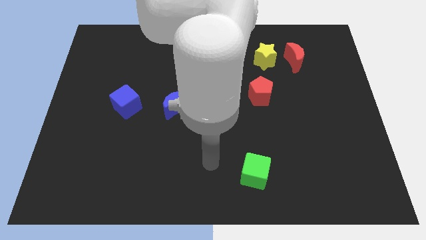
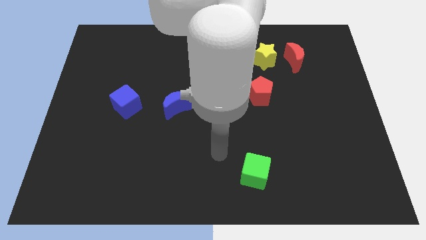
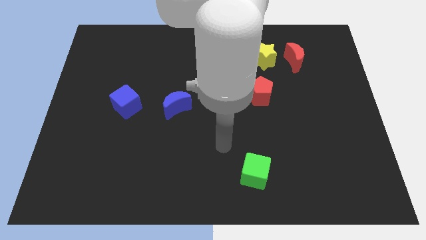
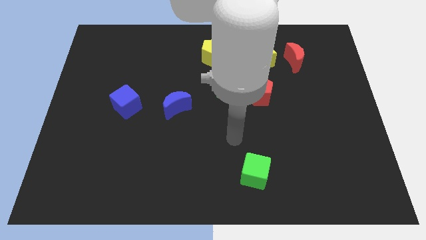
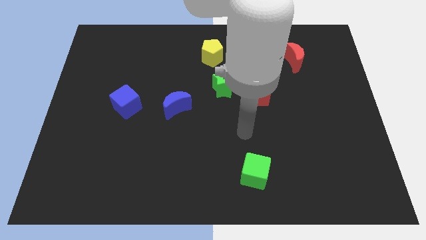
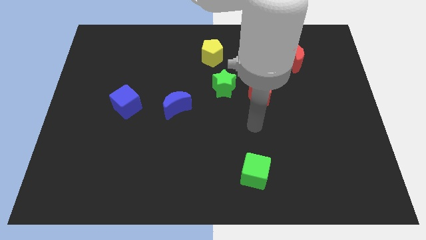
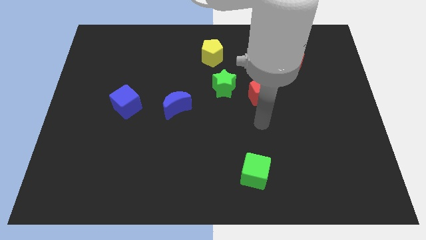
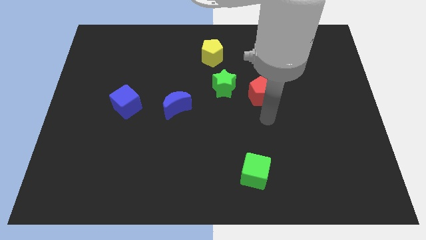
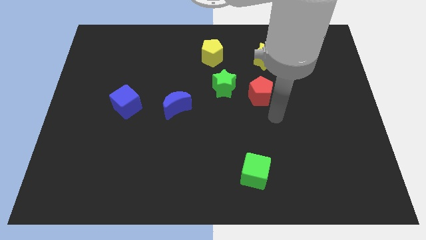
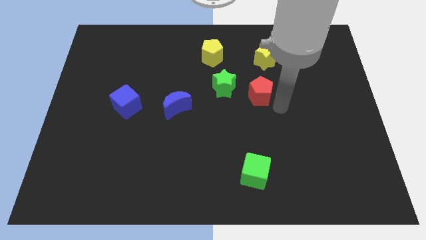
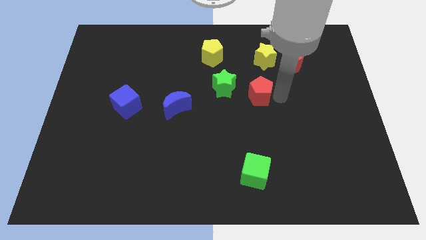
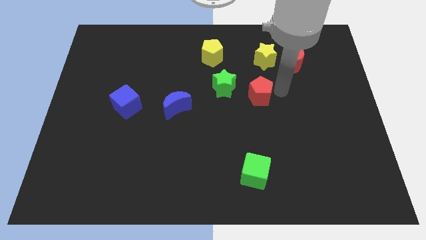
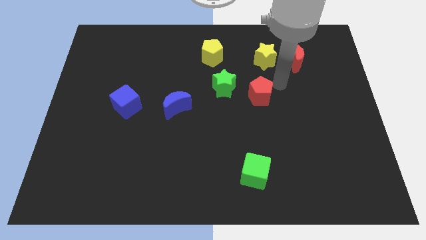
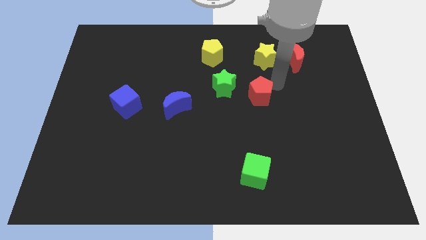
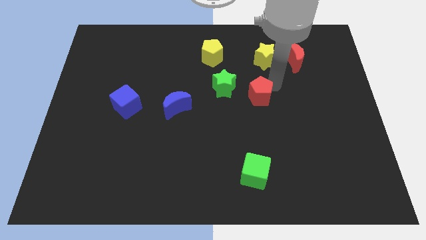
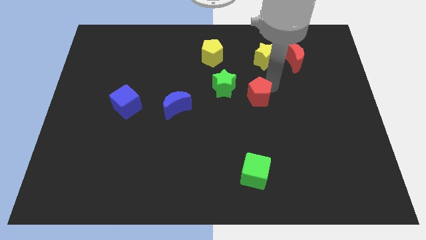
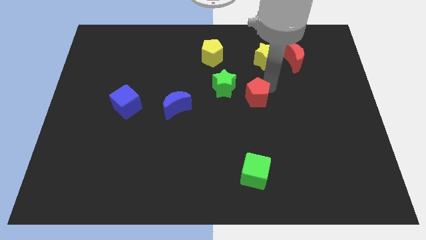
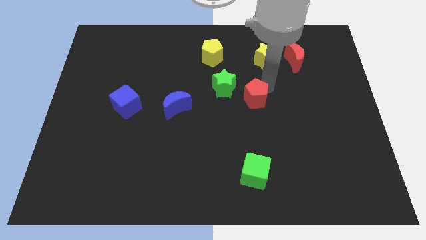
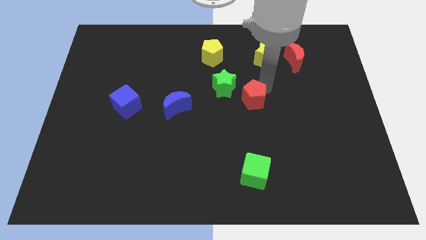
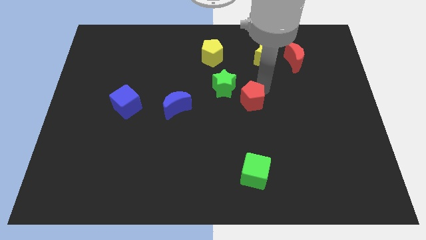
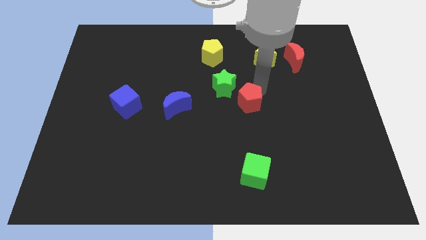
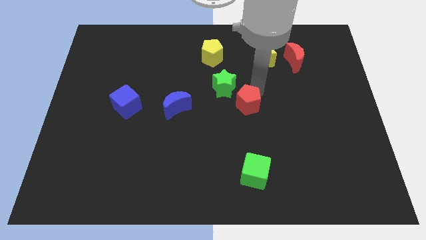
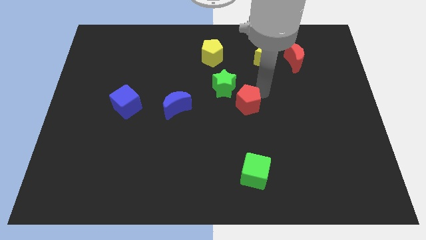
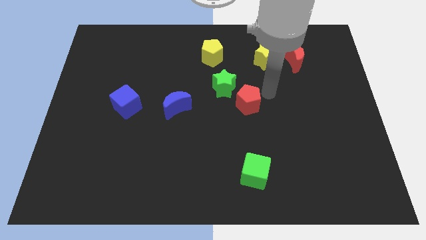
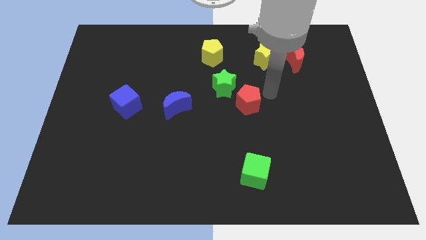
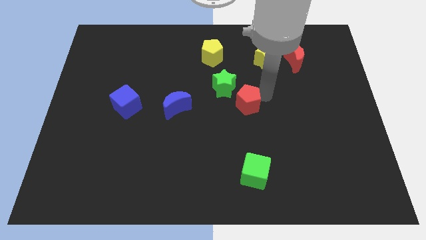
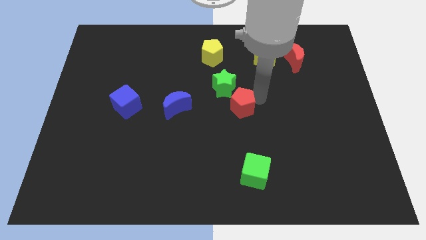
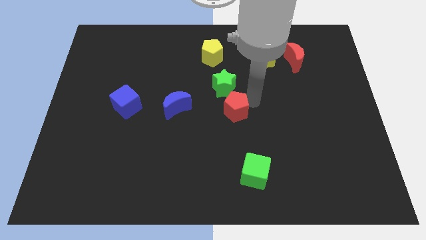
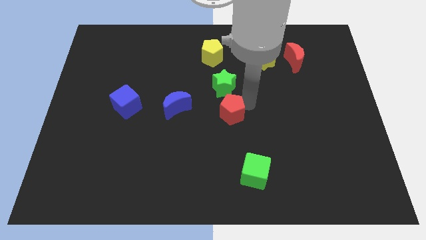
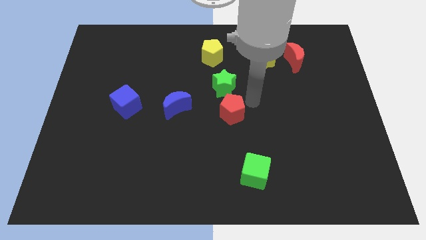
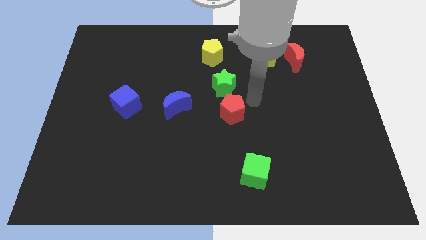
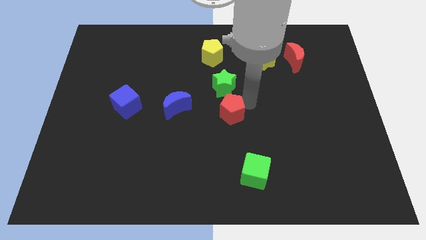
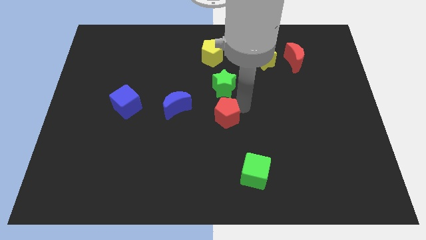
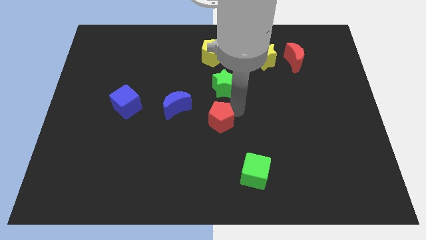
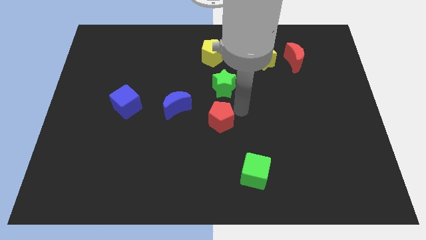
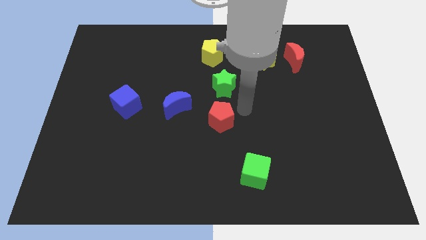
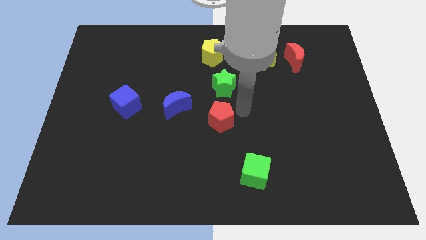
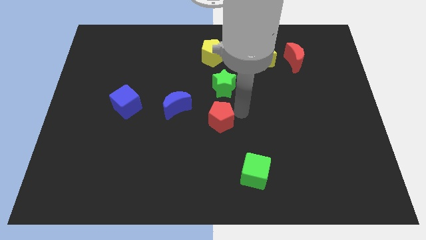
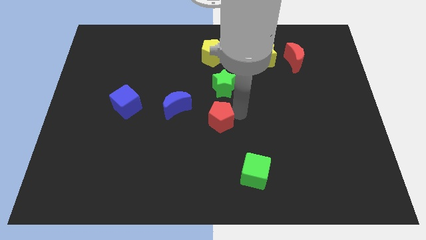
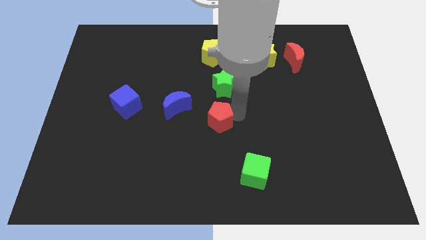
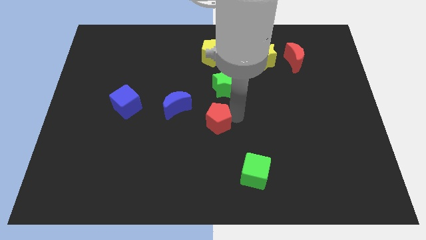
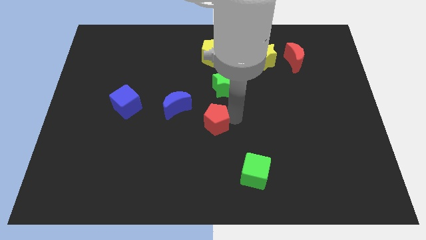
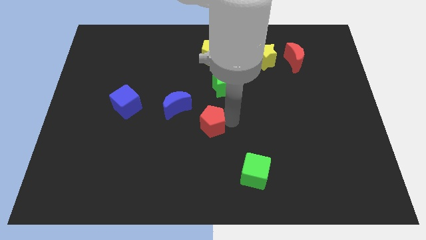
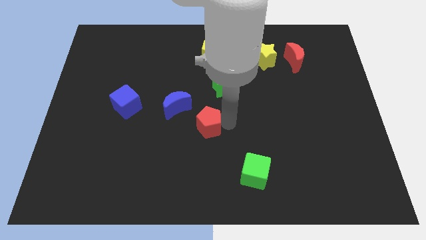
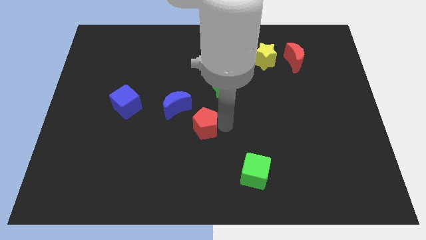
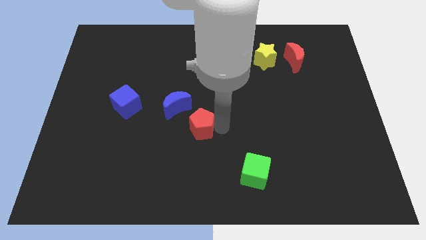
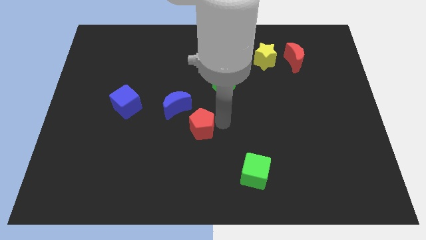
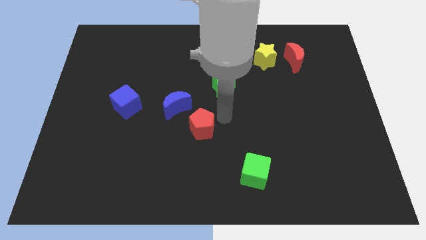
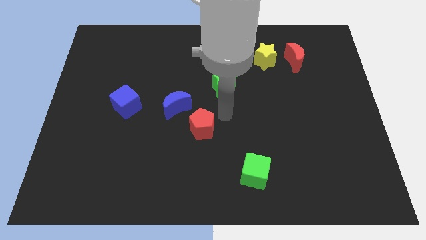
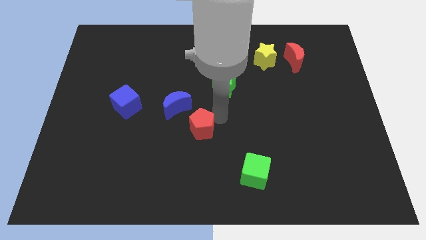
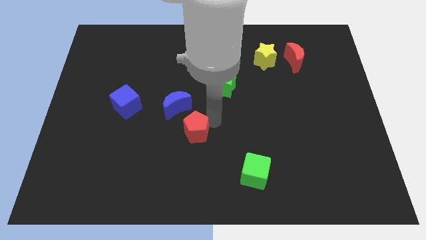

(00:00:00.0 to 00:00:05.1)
slide the red pentagon to the bottom side of the blue moon

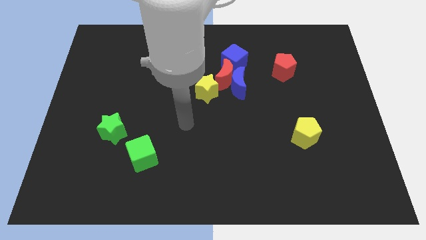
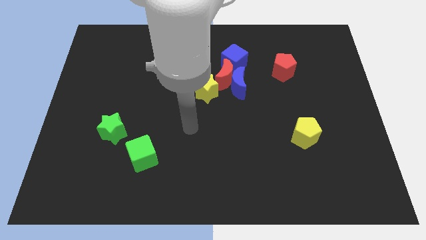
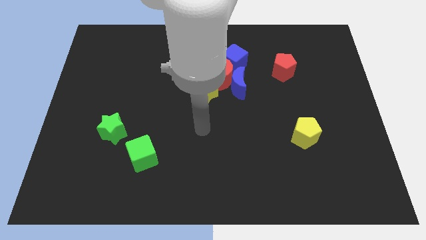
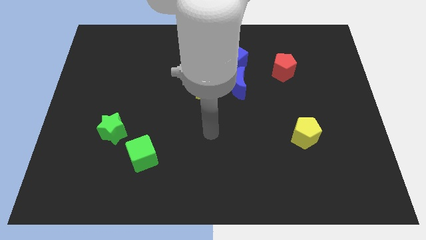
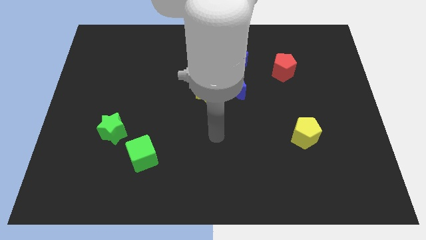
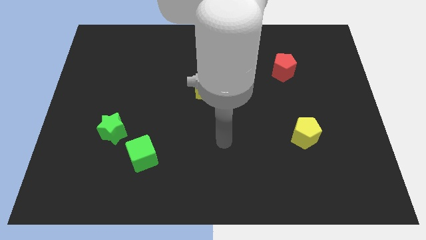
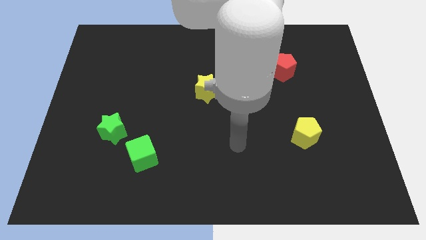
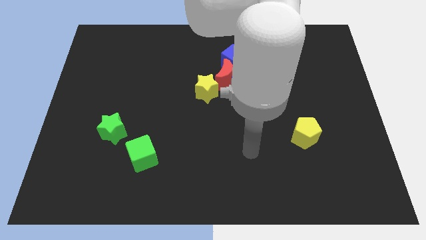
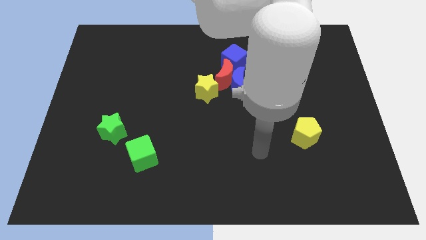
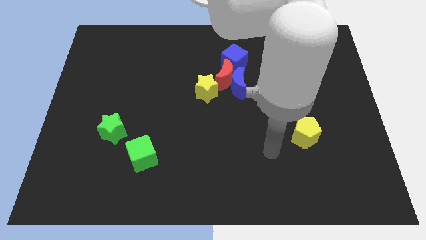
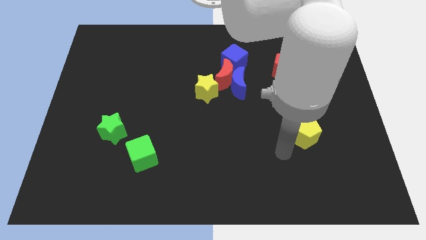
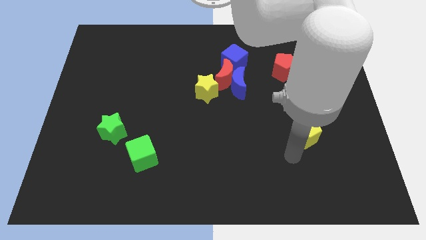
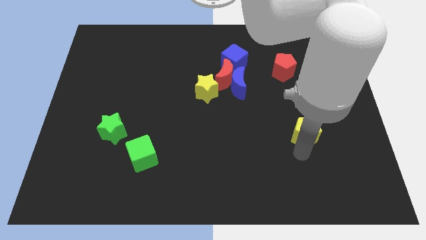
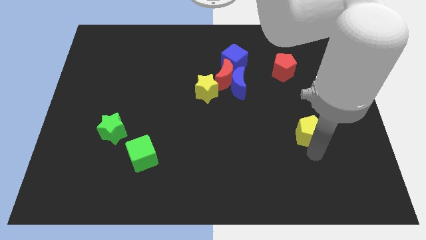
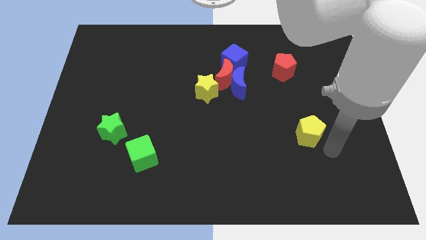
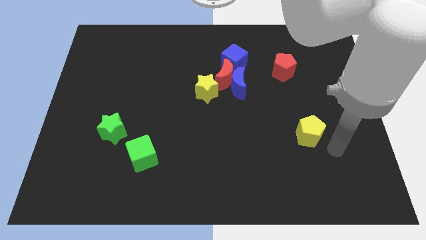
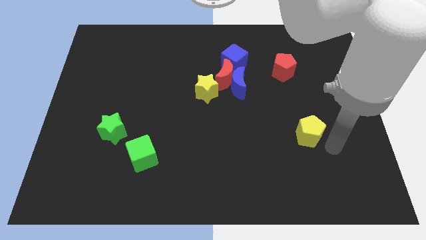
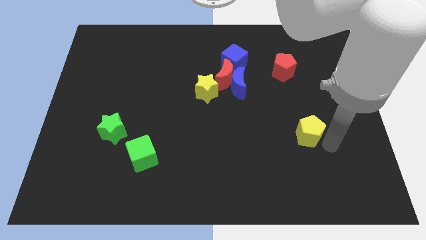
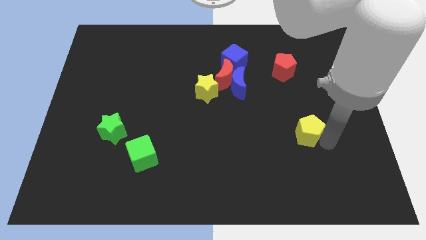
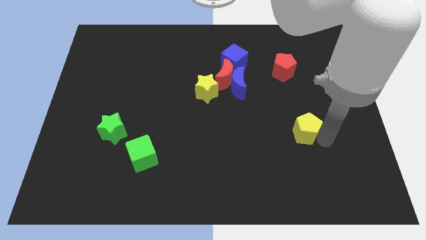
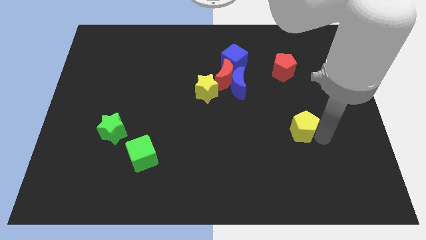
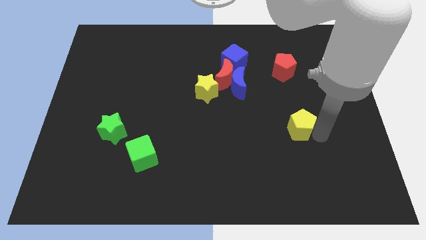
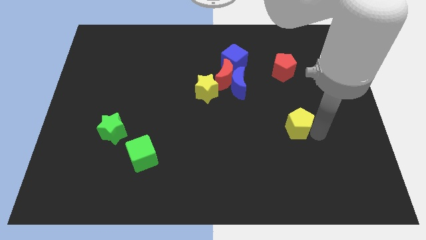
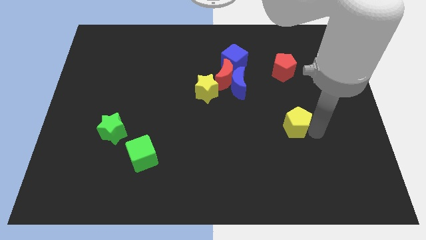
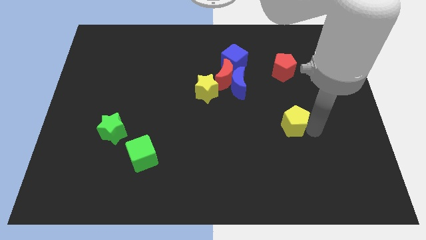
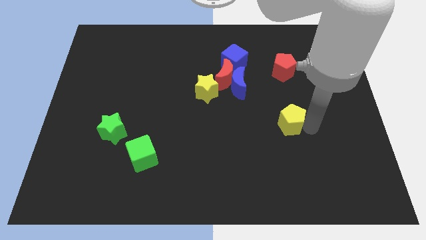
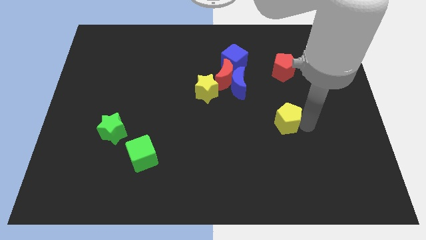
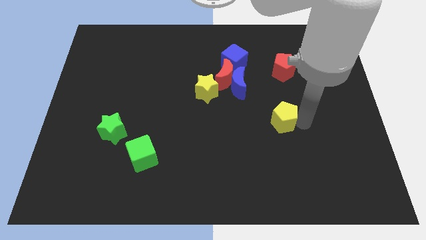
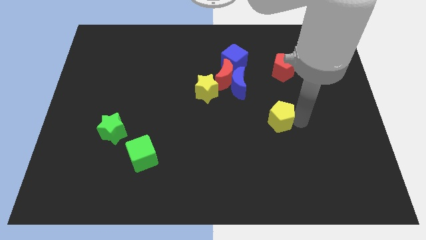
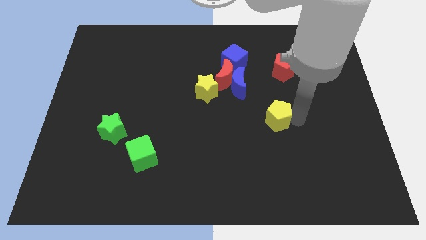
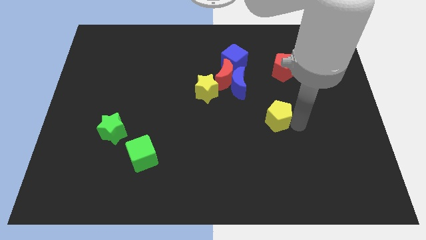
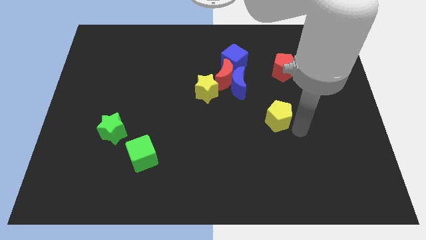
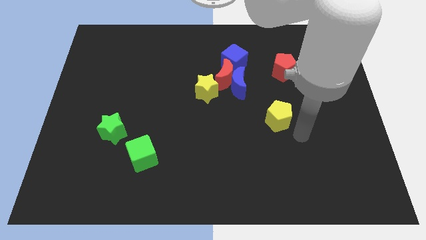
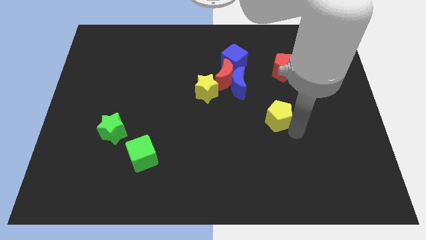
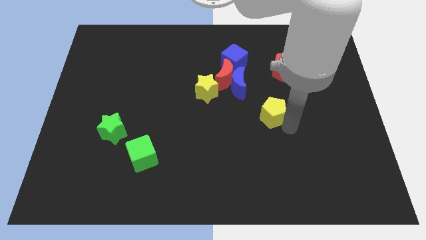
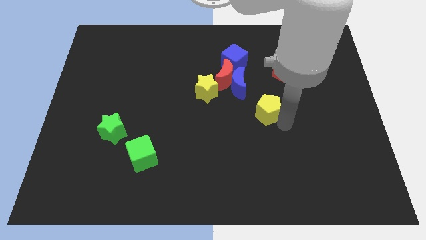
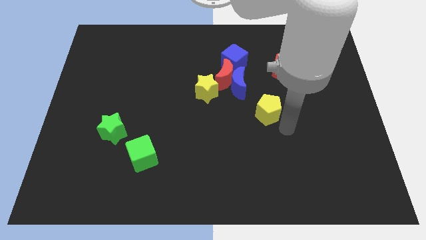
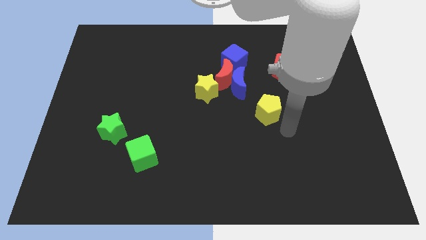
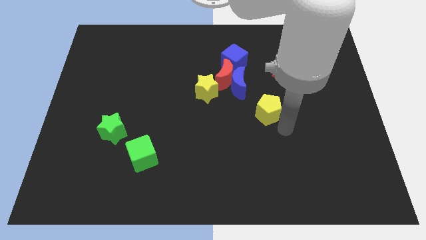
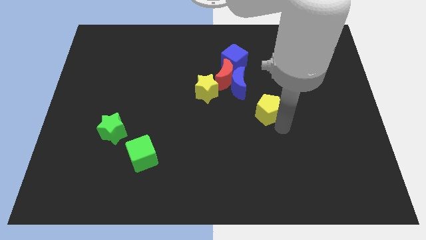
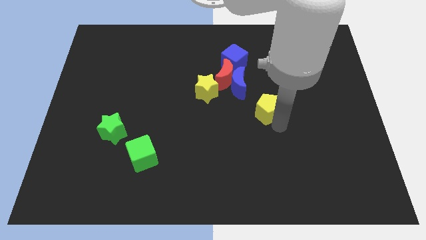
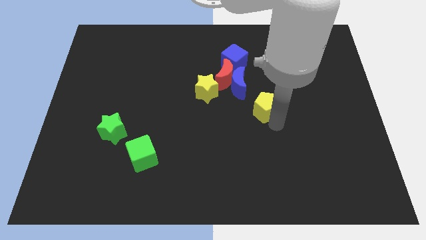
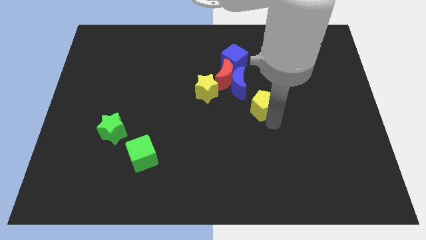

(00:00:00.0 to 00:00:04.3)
slide the yellow pentagon to the bottom right side of the red moon
